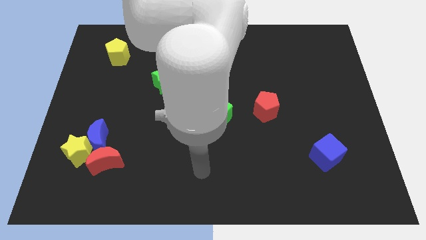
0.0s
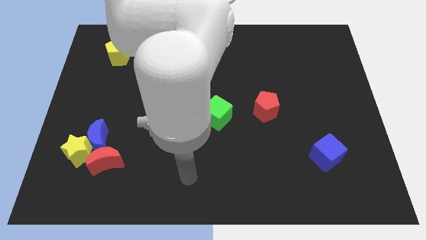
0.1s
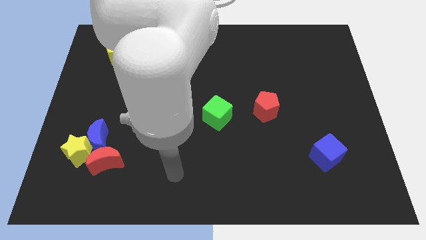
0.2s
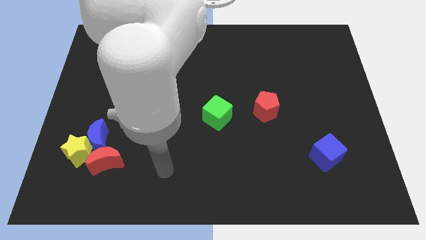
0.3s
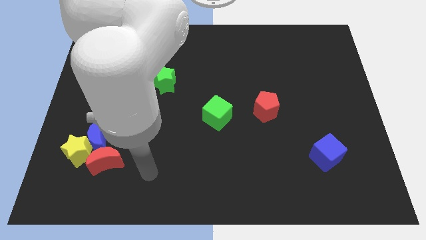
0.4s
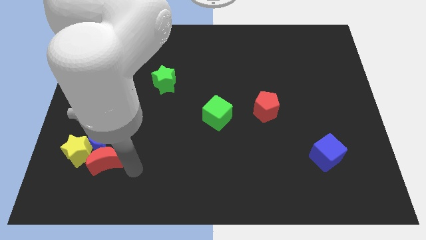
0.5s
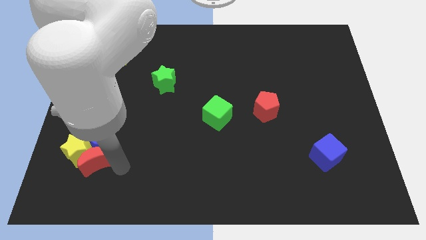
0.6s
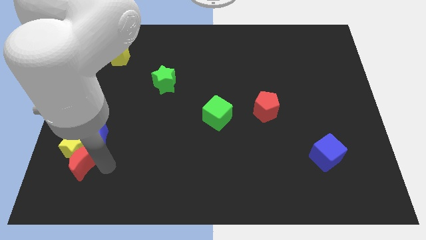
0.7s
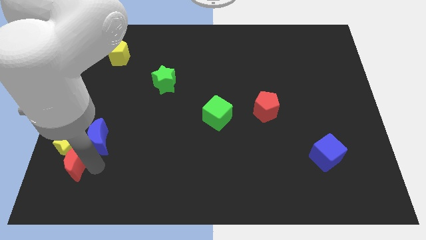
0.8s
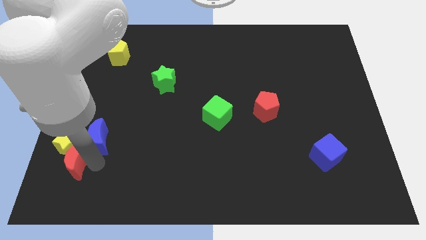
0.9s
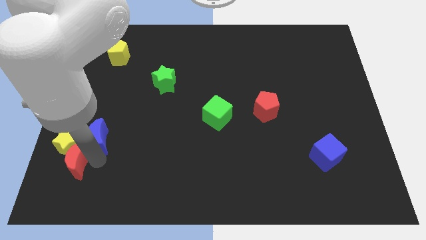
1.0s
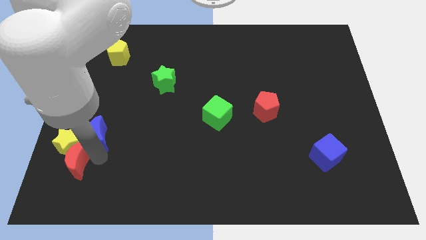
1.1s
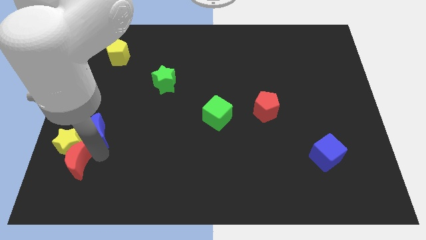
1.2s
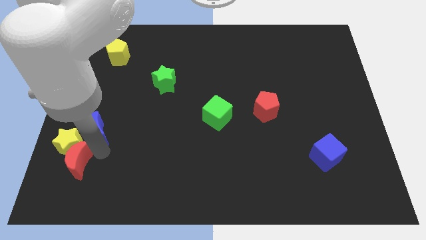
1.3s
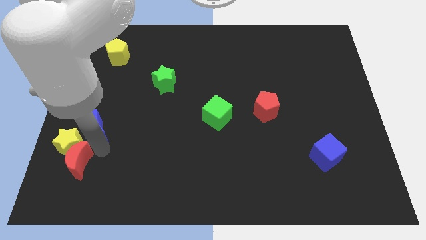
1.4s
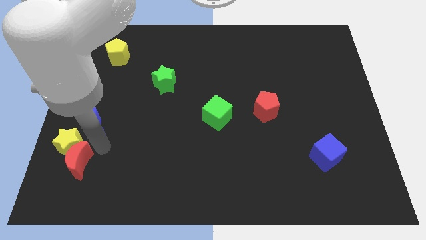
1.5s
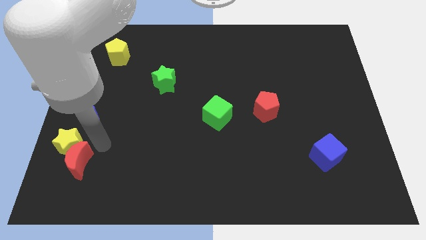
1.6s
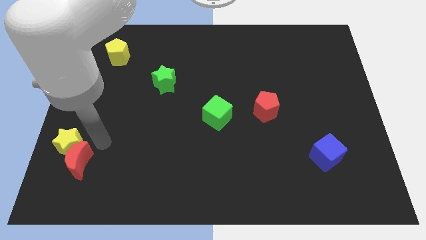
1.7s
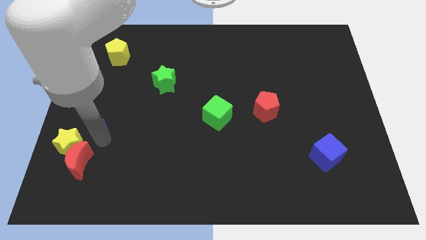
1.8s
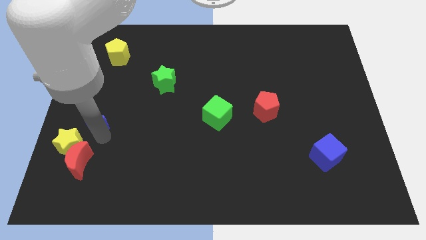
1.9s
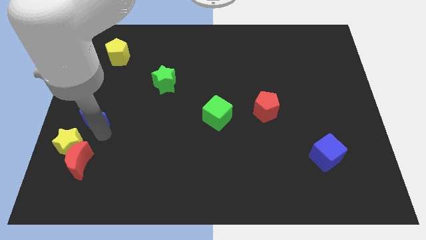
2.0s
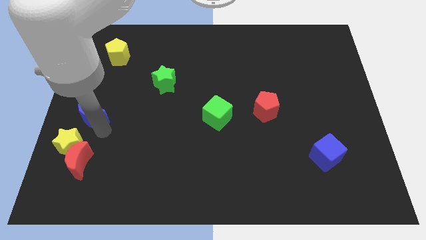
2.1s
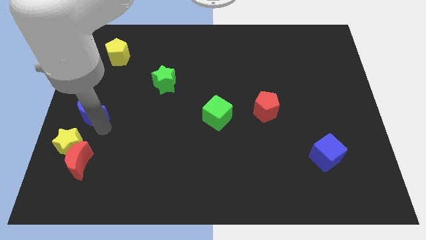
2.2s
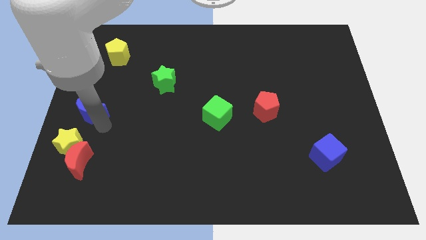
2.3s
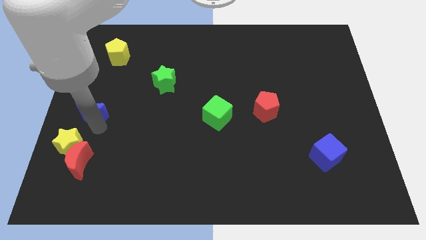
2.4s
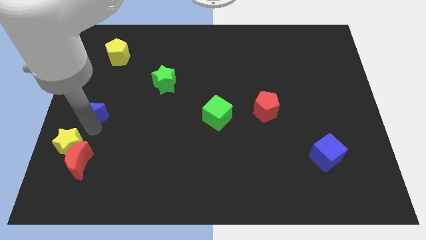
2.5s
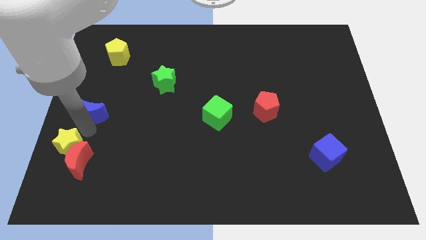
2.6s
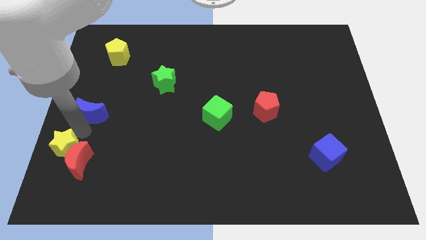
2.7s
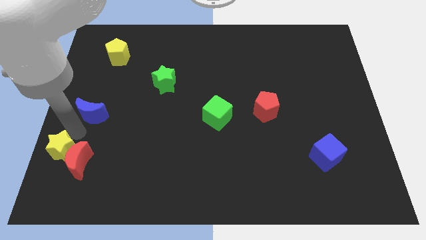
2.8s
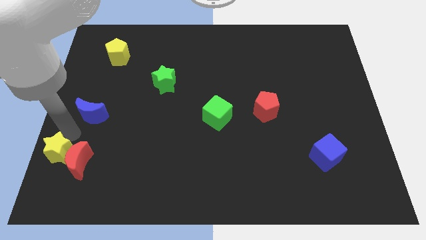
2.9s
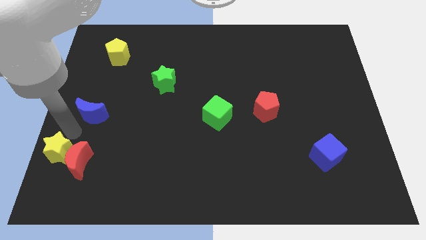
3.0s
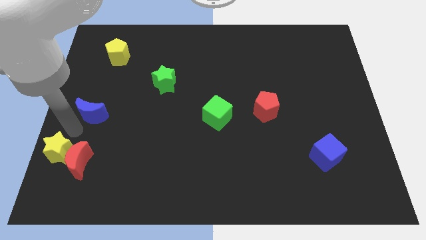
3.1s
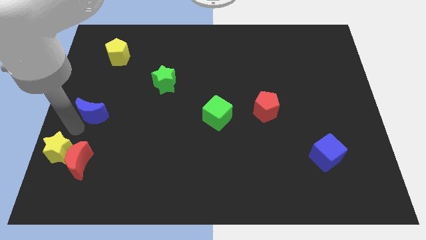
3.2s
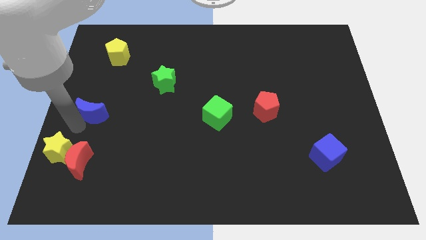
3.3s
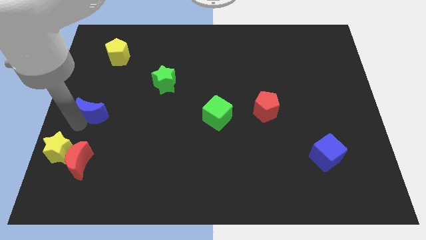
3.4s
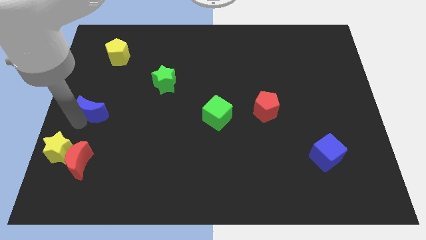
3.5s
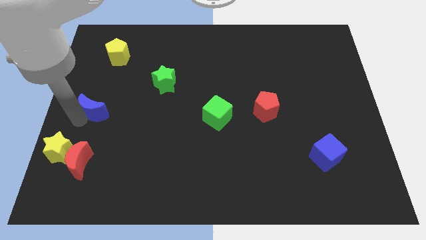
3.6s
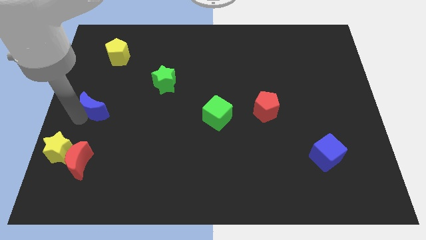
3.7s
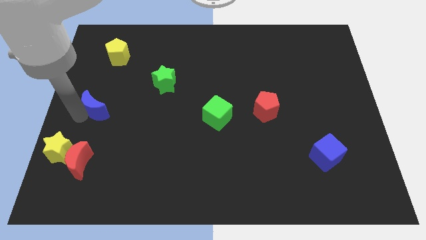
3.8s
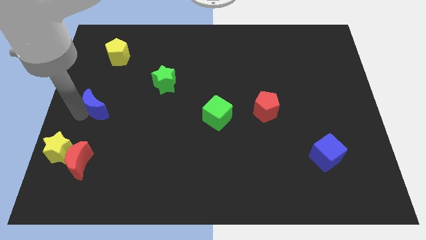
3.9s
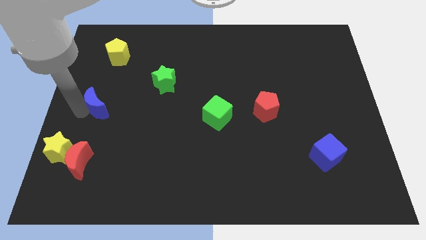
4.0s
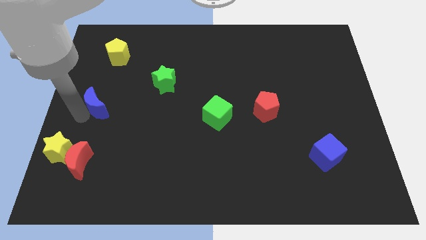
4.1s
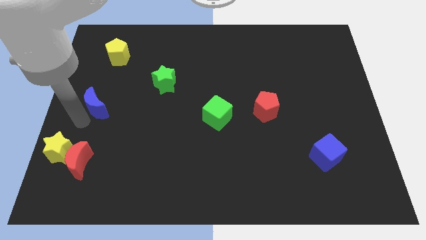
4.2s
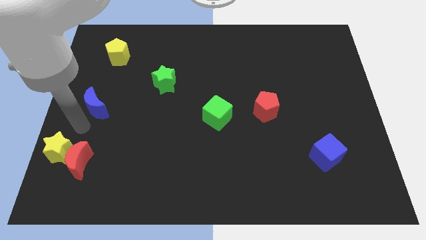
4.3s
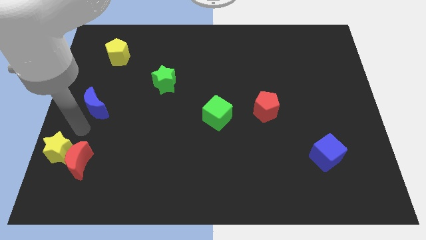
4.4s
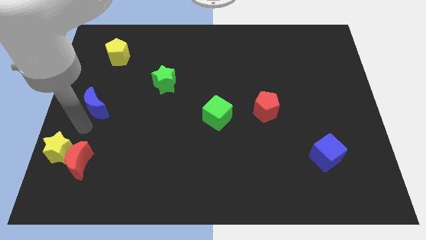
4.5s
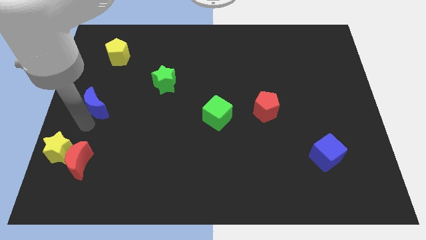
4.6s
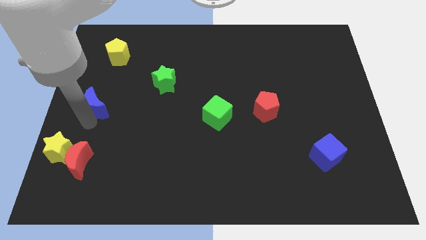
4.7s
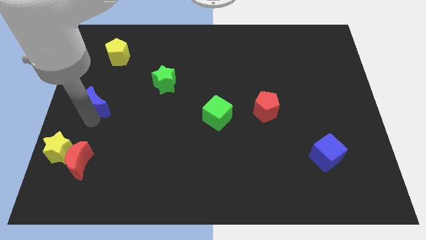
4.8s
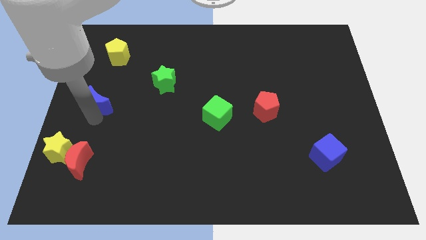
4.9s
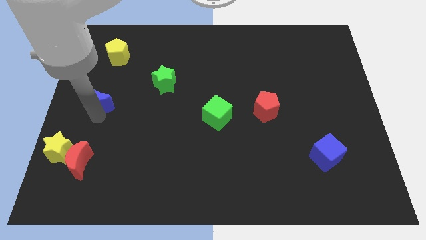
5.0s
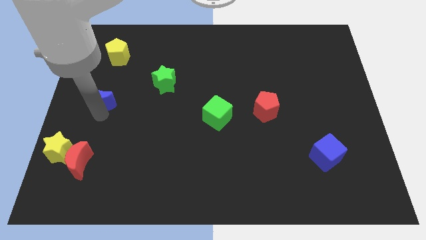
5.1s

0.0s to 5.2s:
slide the blue moon to the bottom side of the yellow pentagon

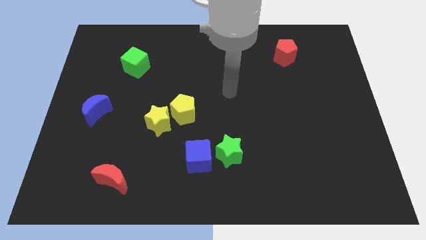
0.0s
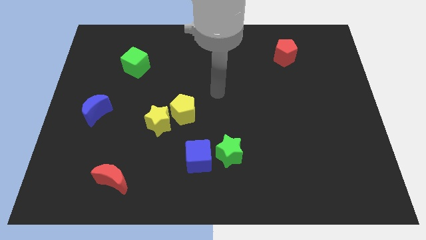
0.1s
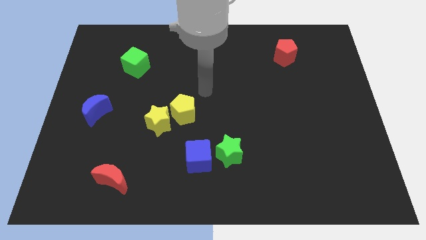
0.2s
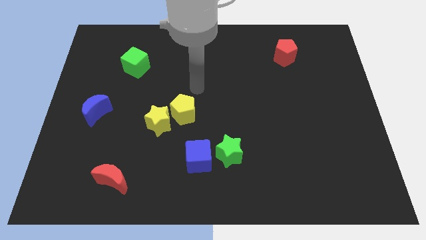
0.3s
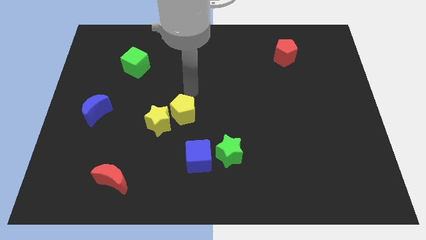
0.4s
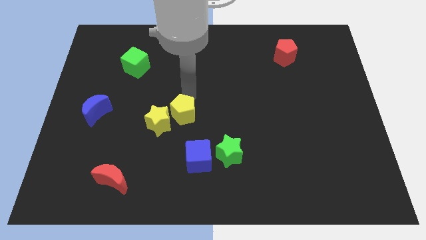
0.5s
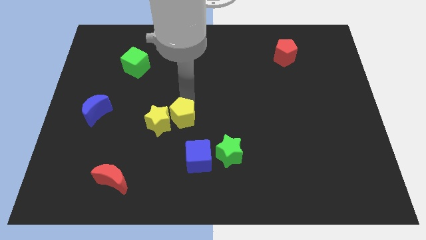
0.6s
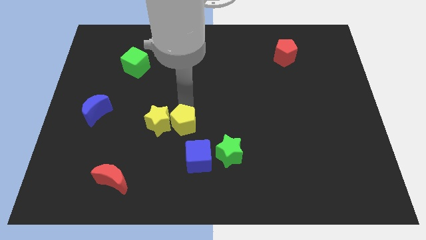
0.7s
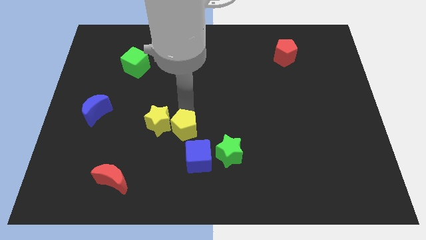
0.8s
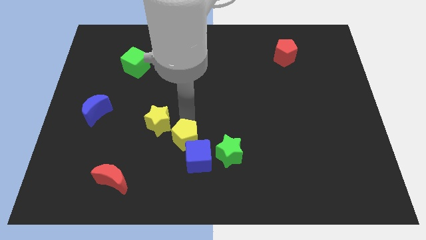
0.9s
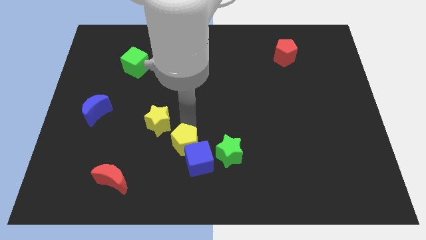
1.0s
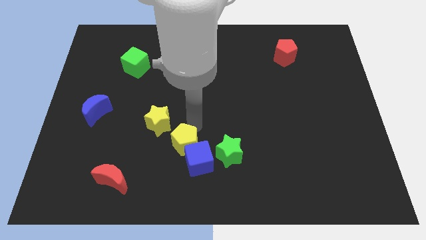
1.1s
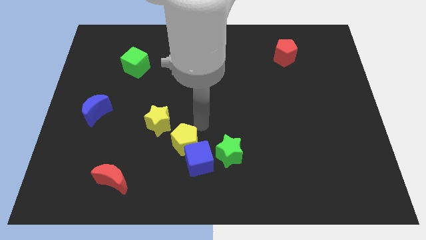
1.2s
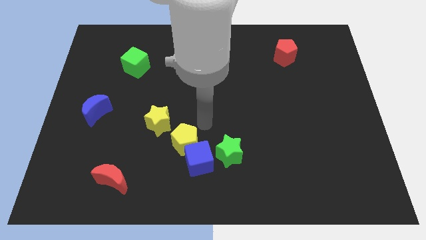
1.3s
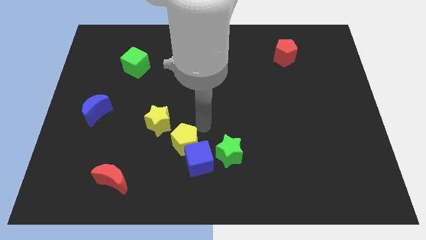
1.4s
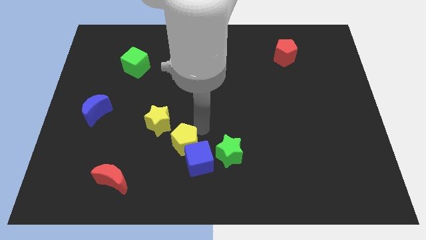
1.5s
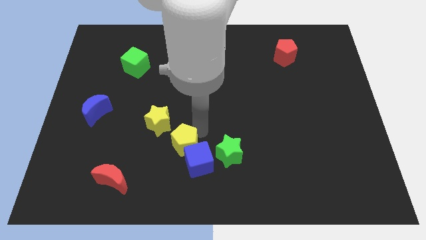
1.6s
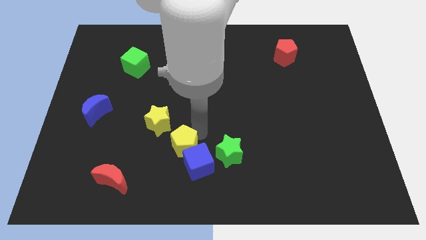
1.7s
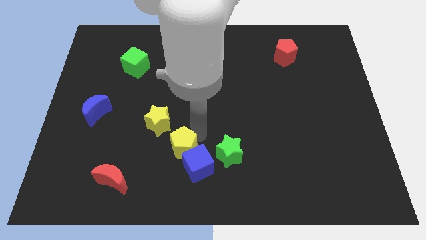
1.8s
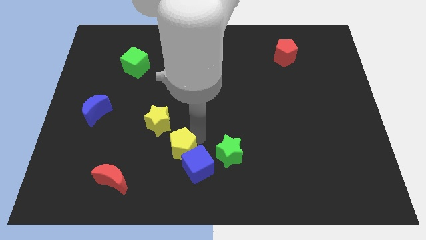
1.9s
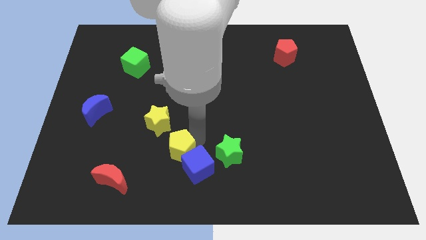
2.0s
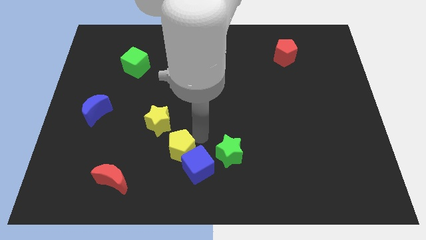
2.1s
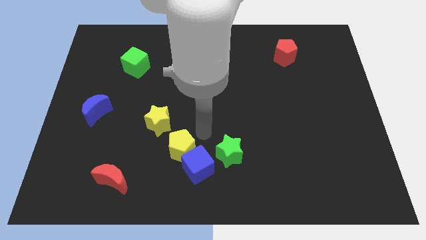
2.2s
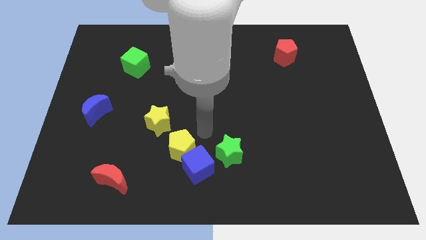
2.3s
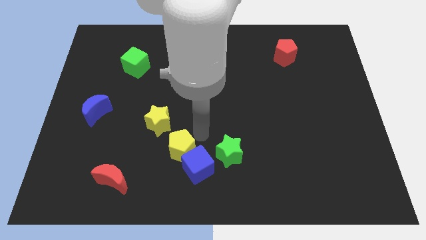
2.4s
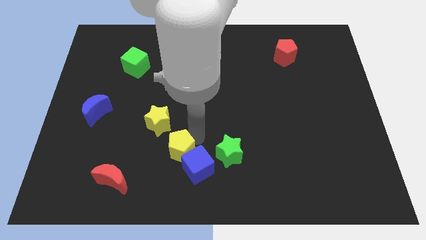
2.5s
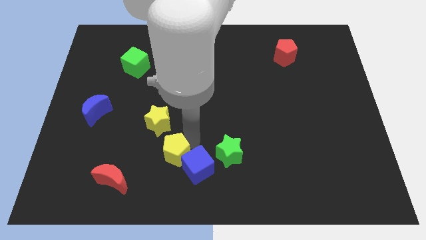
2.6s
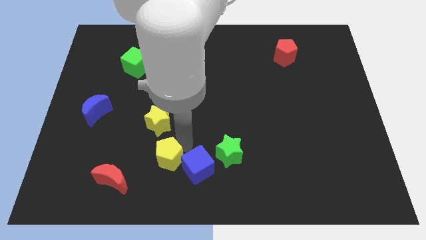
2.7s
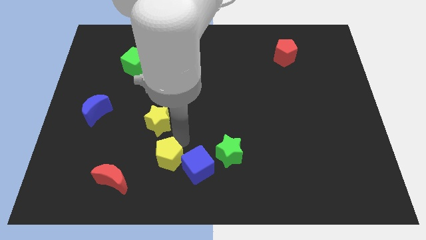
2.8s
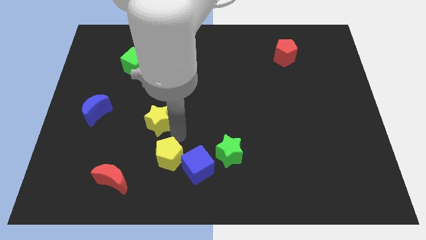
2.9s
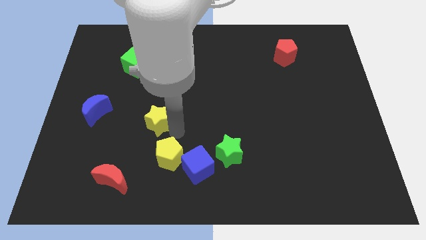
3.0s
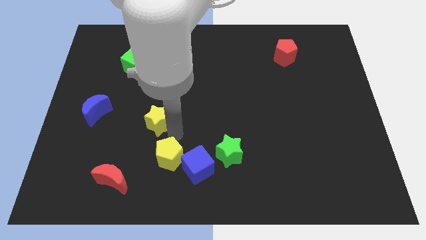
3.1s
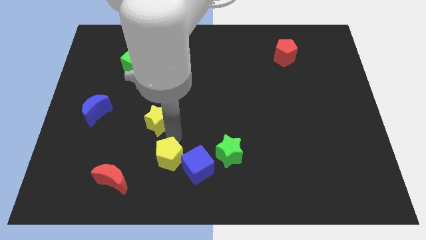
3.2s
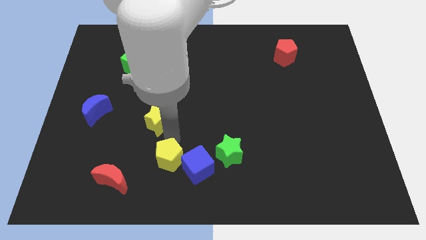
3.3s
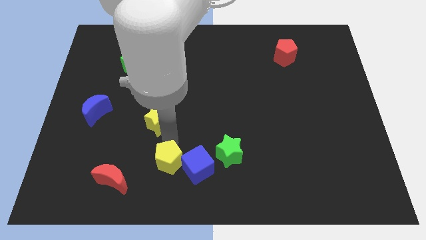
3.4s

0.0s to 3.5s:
move the yellow pentagon to the right of the red moon
